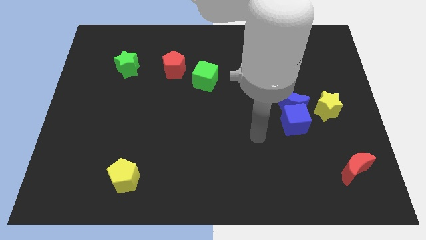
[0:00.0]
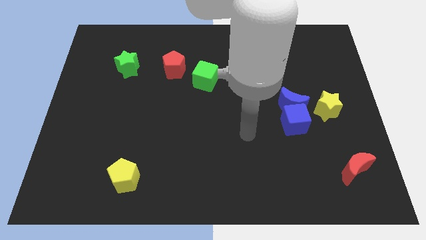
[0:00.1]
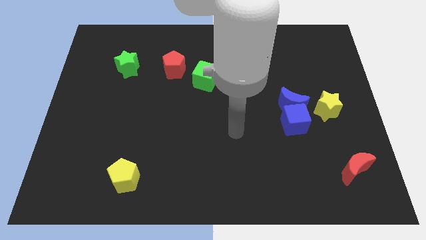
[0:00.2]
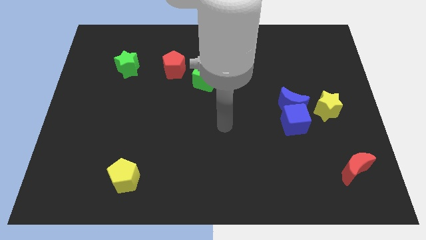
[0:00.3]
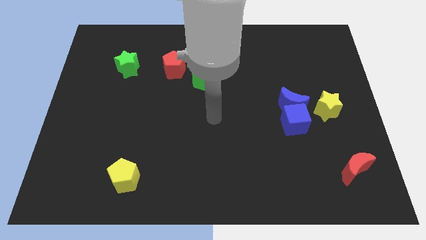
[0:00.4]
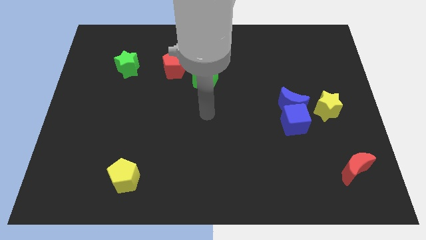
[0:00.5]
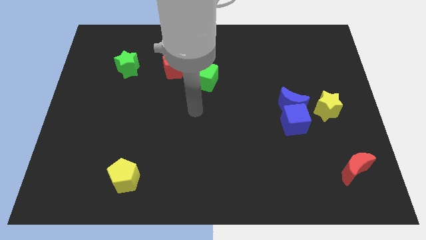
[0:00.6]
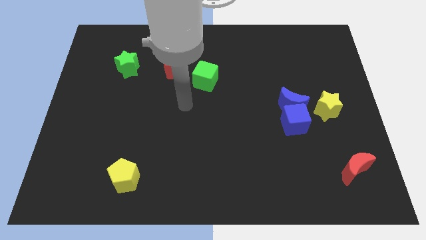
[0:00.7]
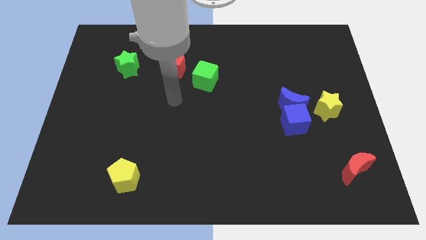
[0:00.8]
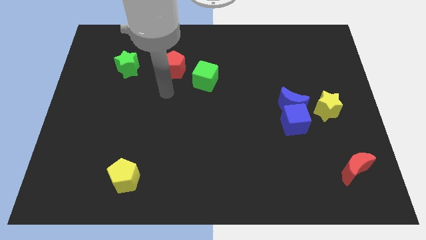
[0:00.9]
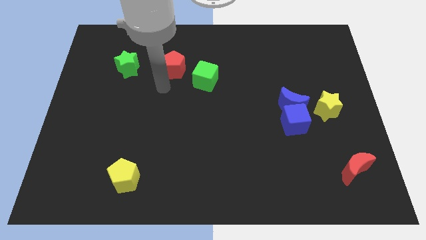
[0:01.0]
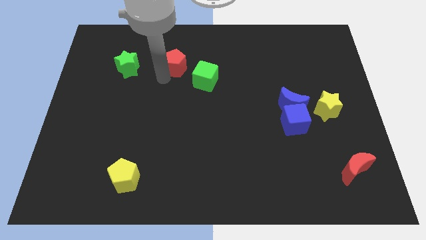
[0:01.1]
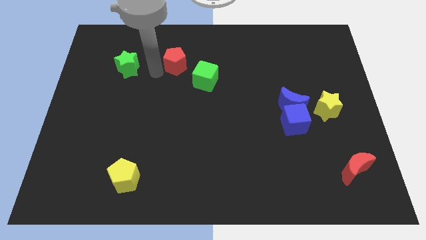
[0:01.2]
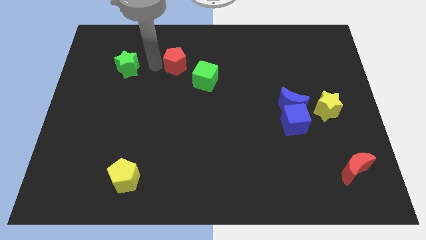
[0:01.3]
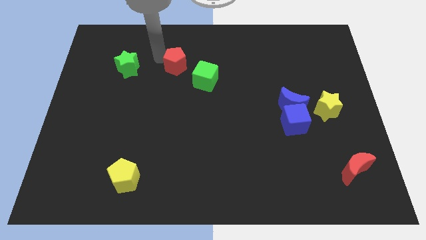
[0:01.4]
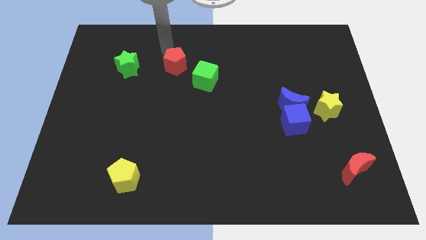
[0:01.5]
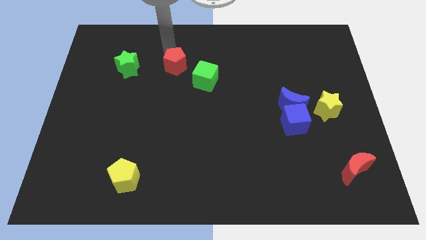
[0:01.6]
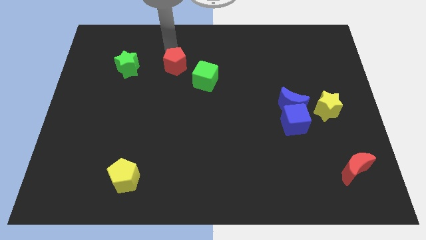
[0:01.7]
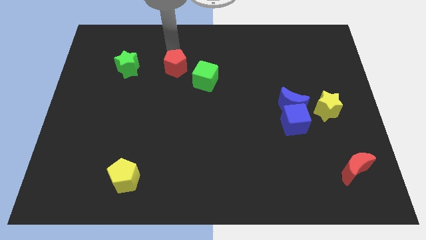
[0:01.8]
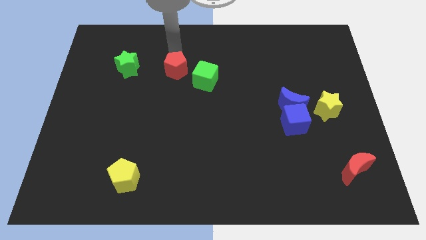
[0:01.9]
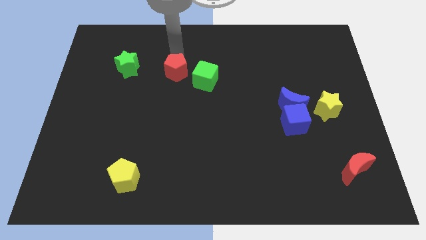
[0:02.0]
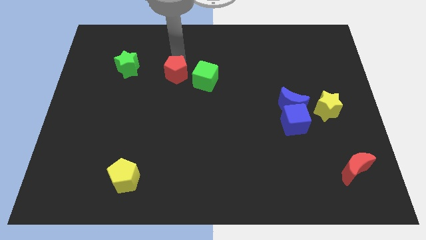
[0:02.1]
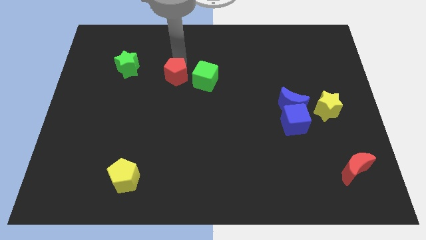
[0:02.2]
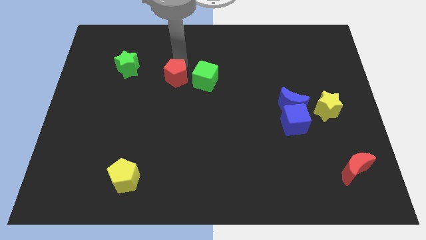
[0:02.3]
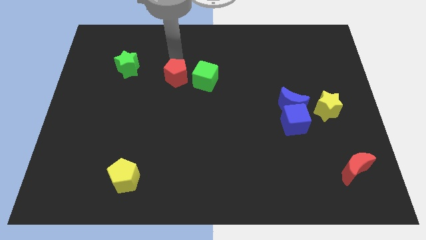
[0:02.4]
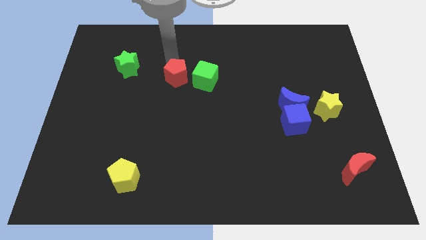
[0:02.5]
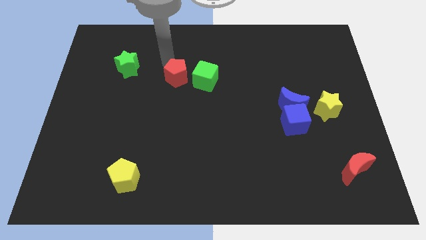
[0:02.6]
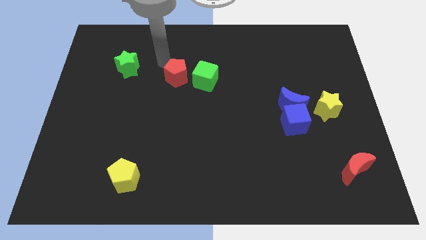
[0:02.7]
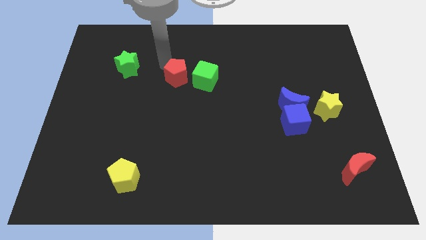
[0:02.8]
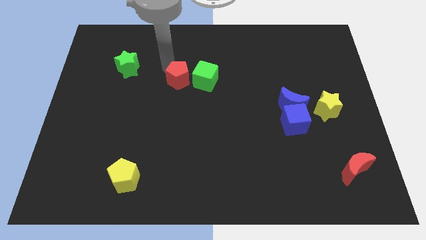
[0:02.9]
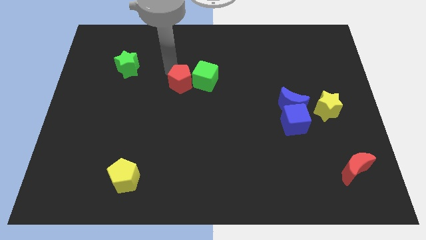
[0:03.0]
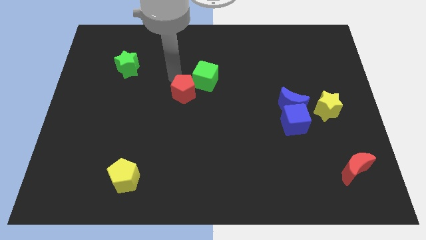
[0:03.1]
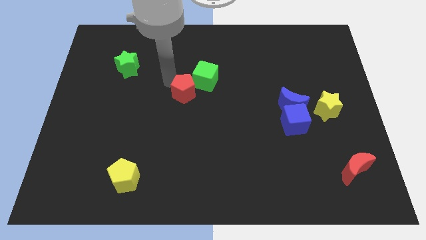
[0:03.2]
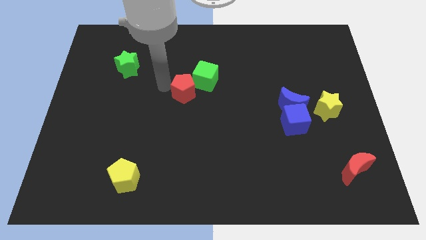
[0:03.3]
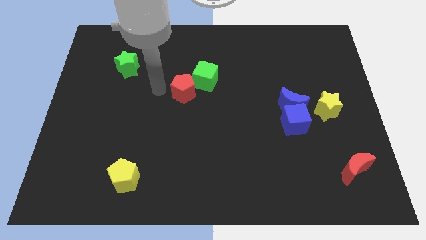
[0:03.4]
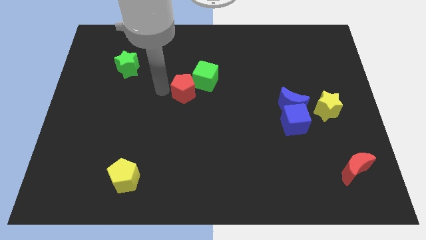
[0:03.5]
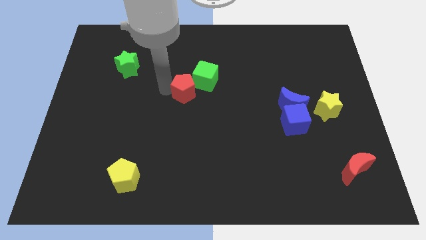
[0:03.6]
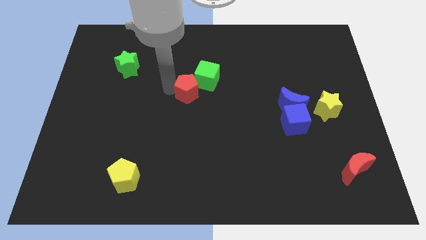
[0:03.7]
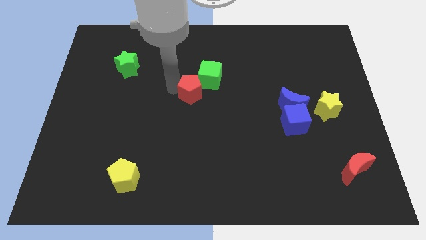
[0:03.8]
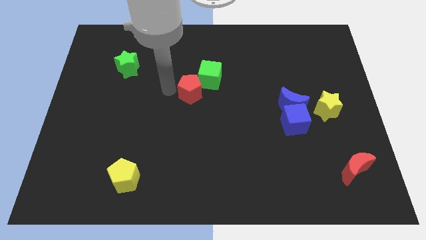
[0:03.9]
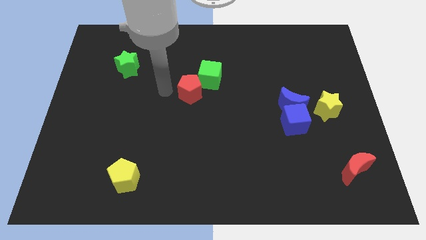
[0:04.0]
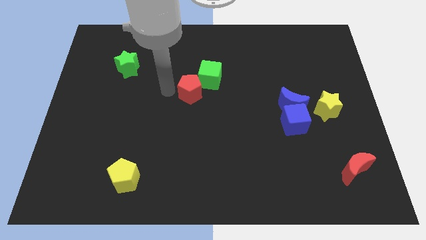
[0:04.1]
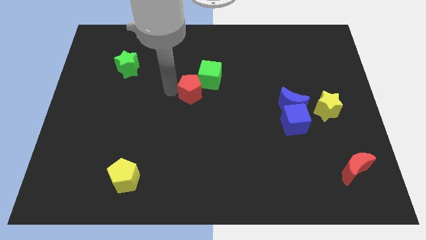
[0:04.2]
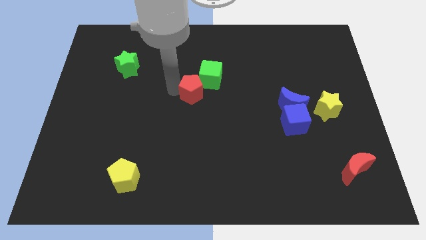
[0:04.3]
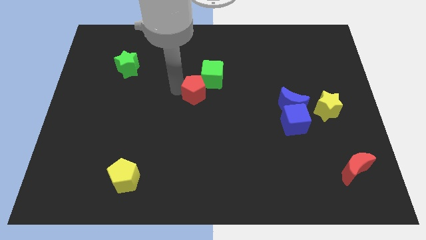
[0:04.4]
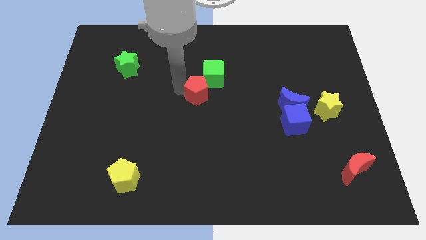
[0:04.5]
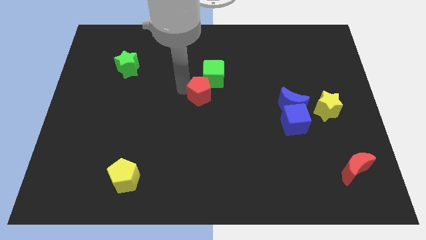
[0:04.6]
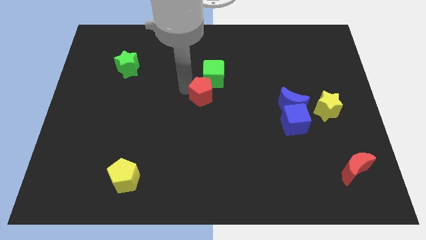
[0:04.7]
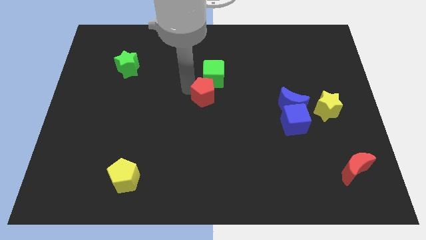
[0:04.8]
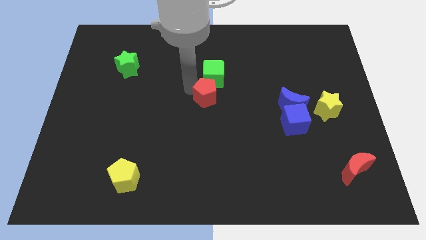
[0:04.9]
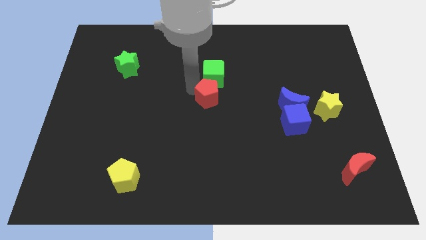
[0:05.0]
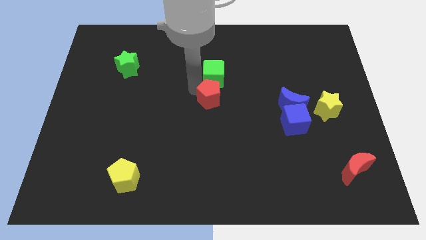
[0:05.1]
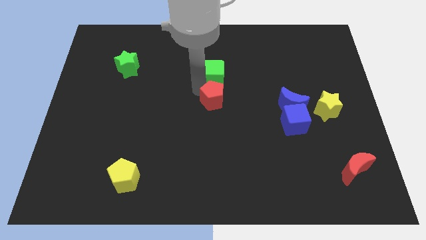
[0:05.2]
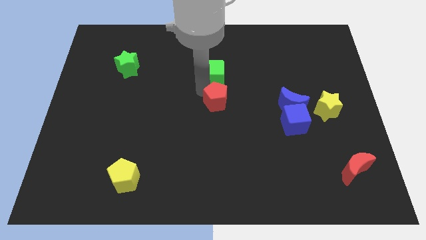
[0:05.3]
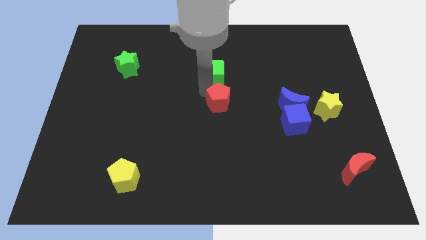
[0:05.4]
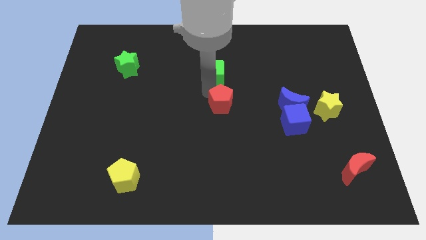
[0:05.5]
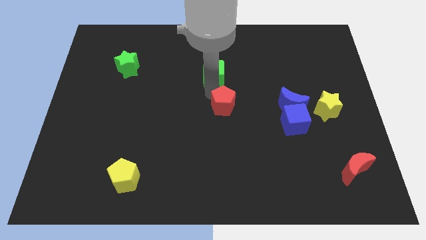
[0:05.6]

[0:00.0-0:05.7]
put the red pentagon just left of the blue moon
